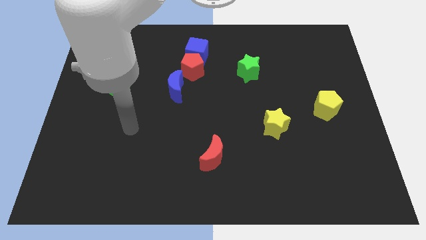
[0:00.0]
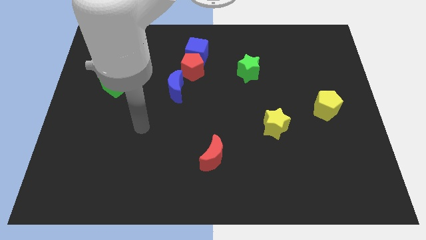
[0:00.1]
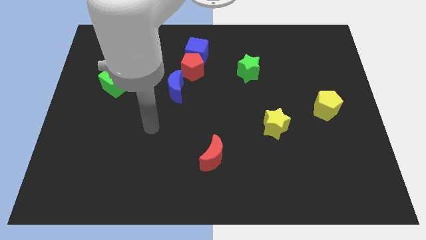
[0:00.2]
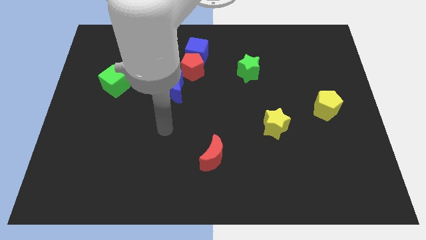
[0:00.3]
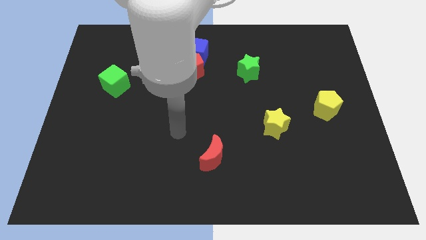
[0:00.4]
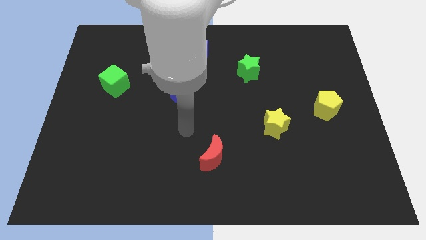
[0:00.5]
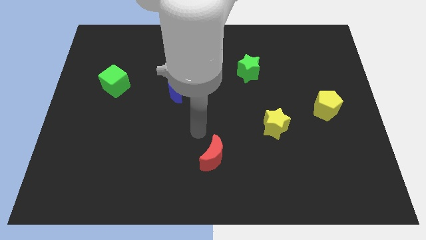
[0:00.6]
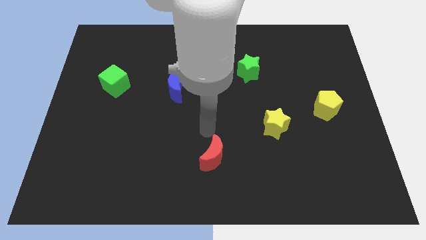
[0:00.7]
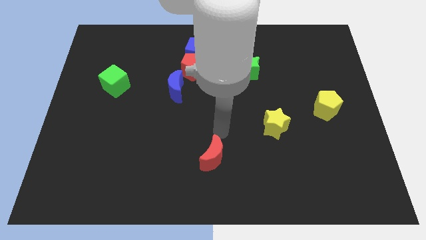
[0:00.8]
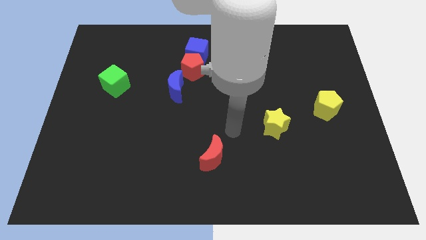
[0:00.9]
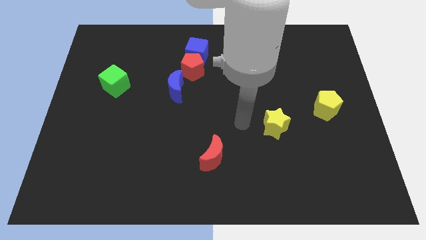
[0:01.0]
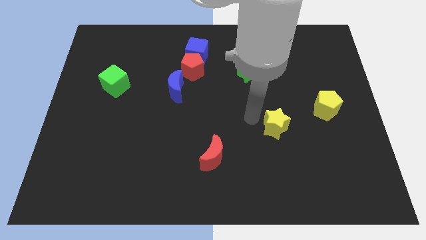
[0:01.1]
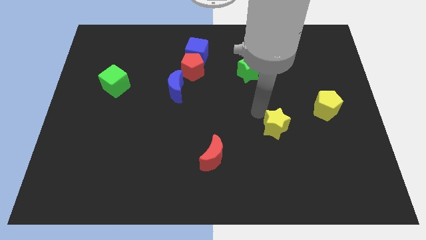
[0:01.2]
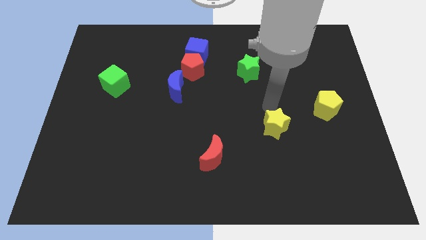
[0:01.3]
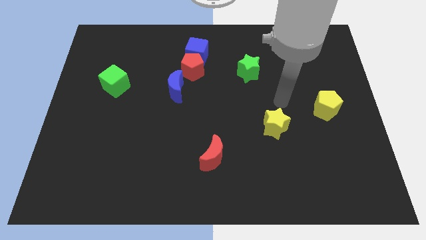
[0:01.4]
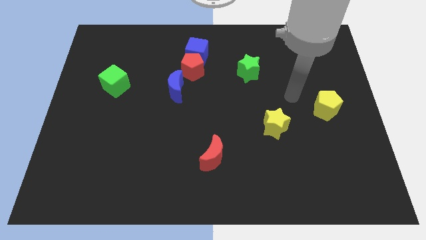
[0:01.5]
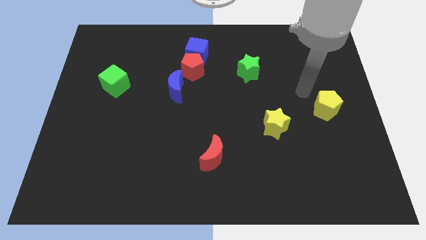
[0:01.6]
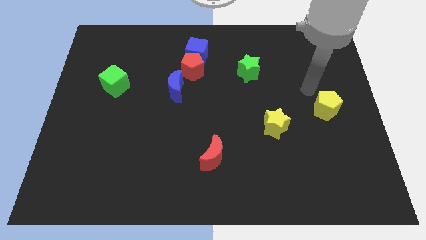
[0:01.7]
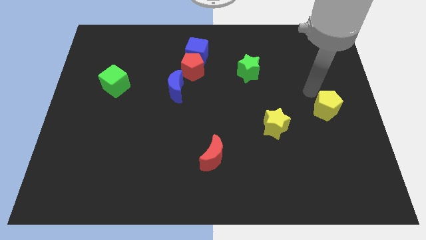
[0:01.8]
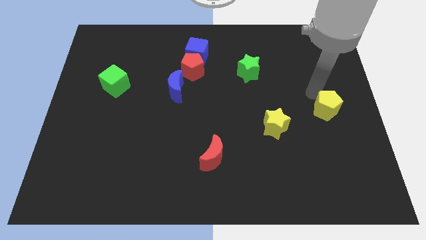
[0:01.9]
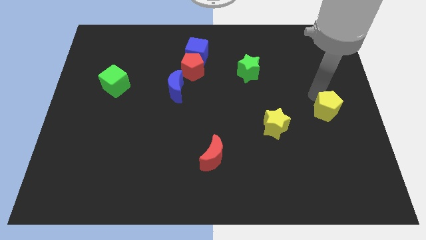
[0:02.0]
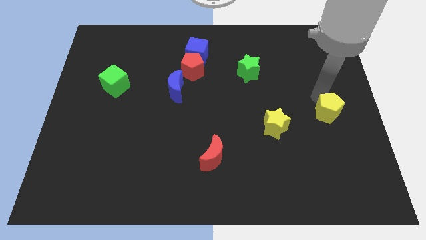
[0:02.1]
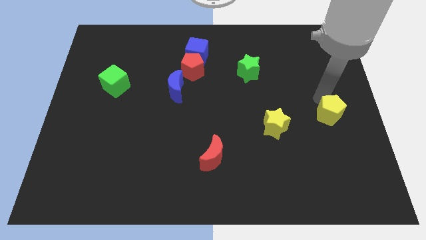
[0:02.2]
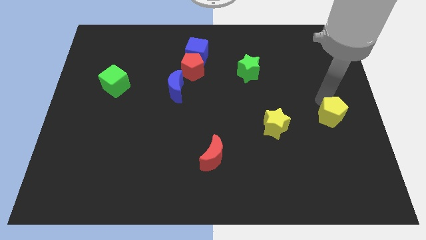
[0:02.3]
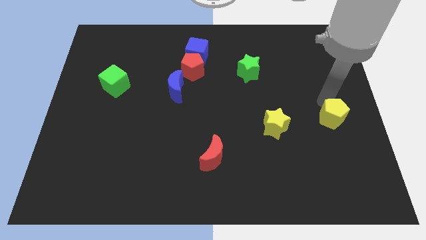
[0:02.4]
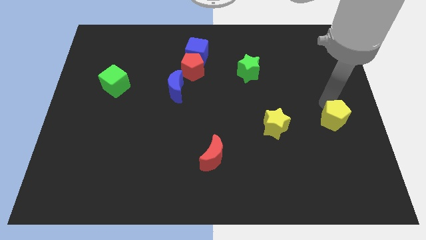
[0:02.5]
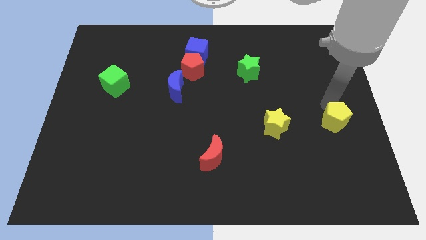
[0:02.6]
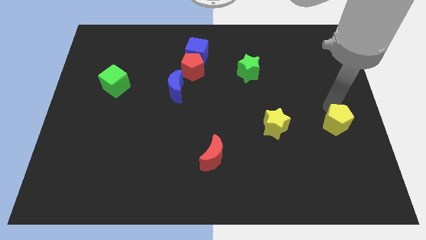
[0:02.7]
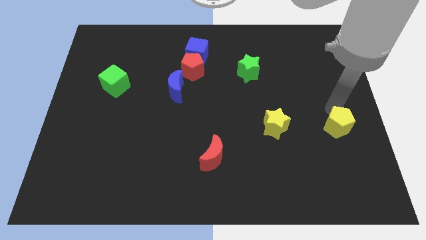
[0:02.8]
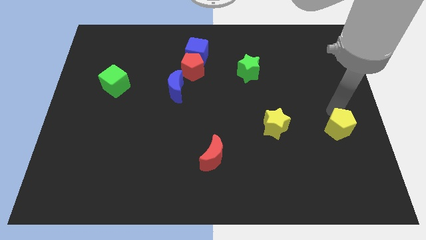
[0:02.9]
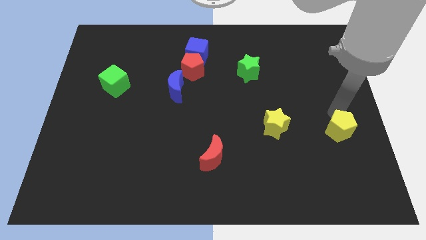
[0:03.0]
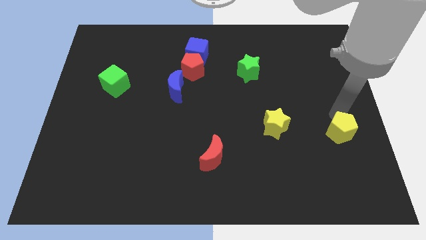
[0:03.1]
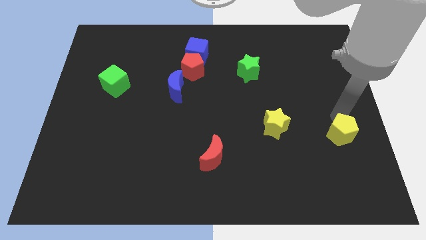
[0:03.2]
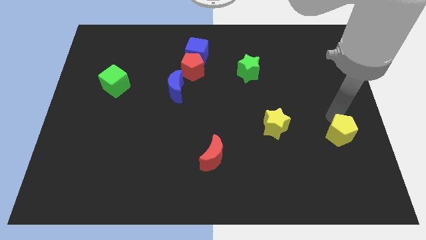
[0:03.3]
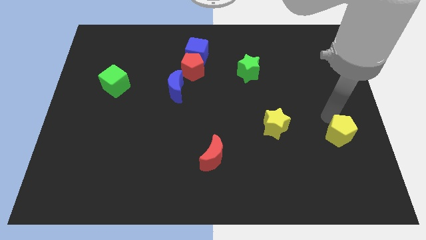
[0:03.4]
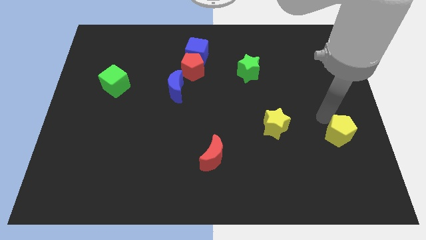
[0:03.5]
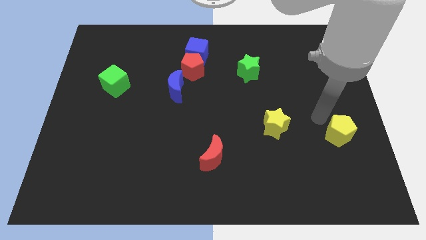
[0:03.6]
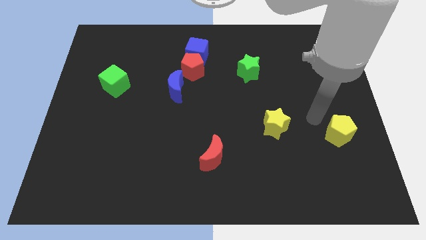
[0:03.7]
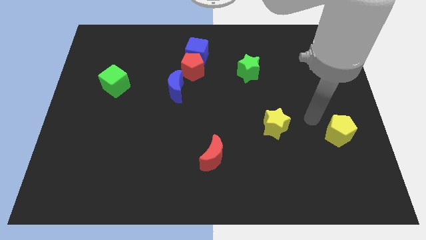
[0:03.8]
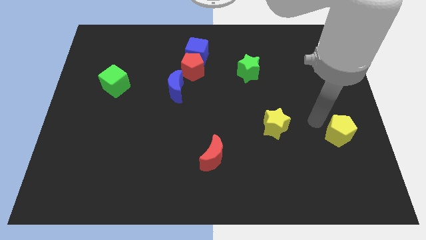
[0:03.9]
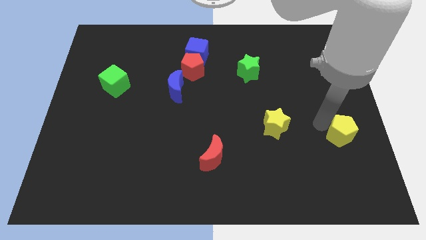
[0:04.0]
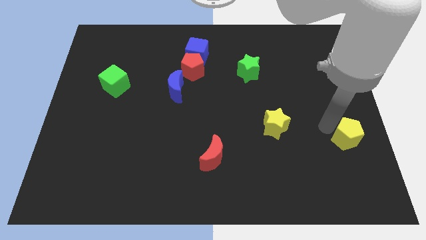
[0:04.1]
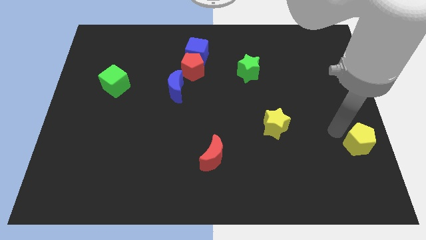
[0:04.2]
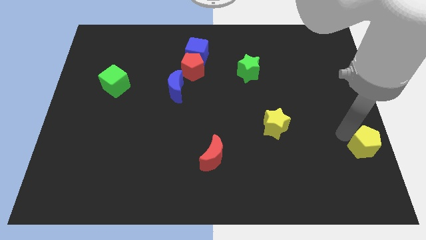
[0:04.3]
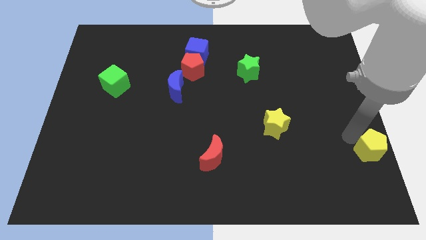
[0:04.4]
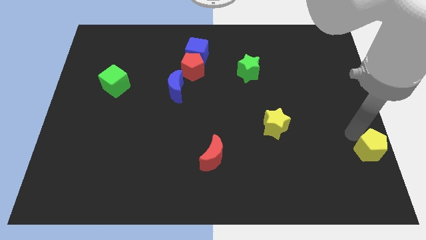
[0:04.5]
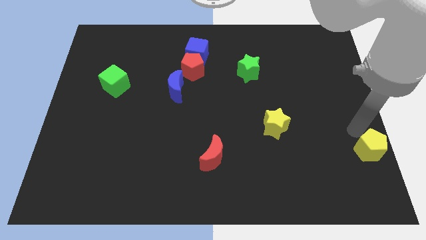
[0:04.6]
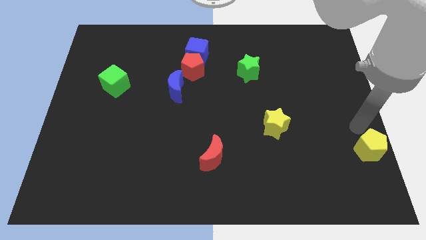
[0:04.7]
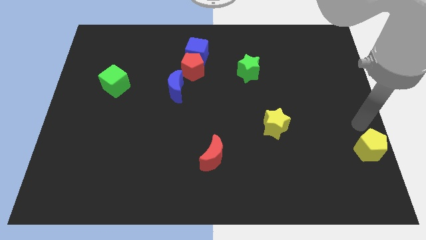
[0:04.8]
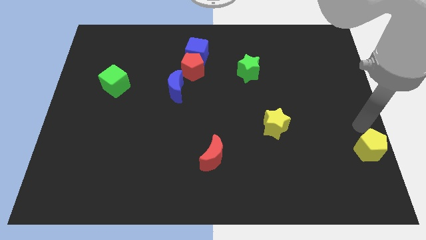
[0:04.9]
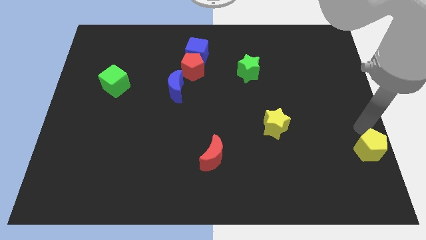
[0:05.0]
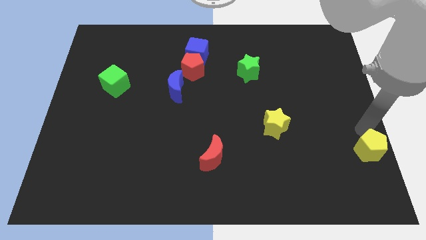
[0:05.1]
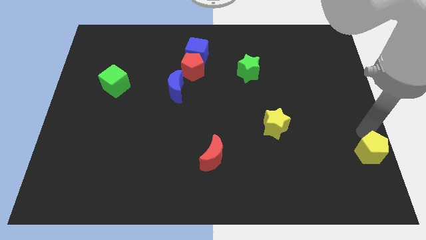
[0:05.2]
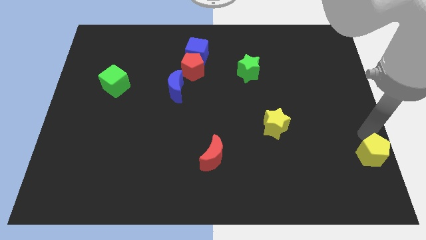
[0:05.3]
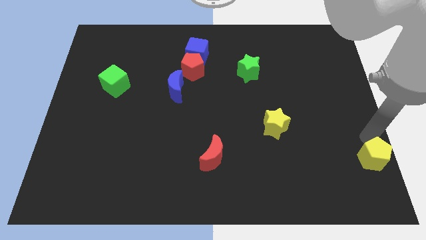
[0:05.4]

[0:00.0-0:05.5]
slide the yellow pentagon to the bottom right of the board

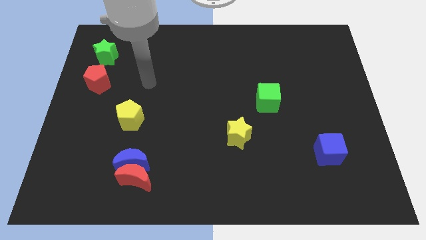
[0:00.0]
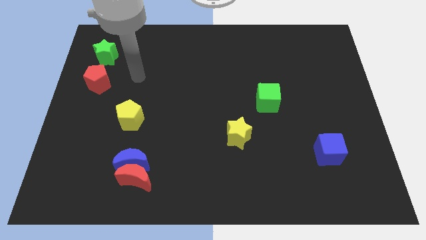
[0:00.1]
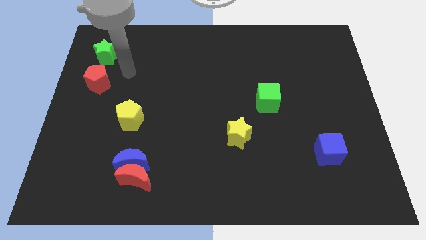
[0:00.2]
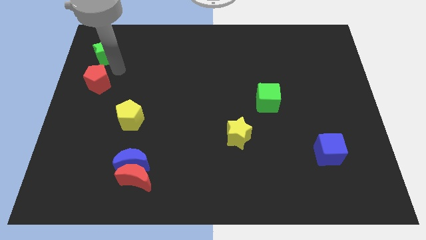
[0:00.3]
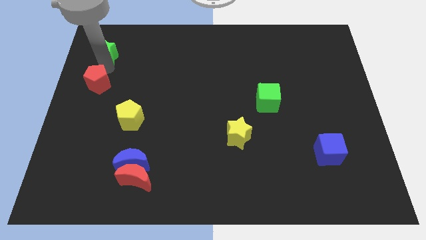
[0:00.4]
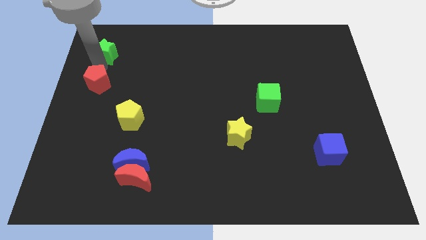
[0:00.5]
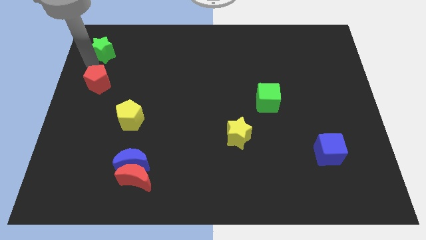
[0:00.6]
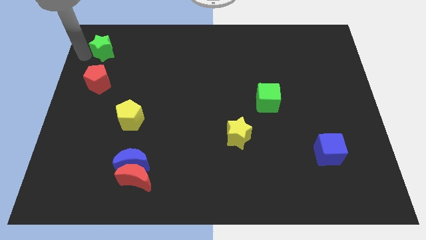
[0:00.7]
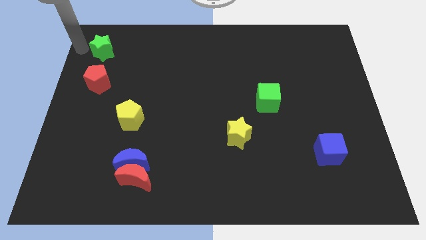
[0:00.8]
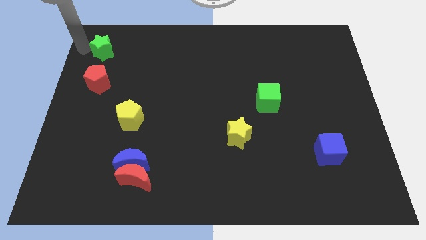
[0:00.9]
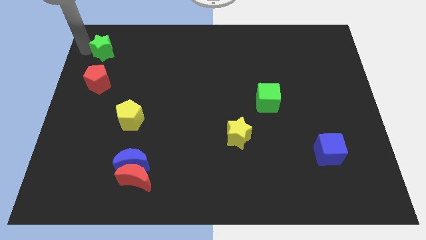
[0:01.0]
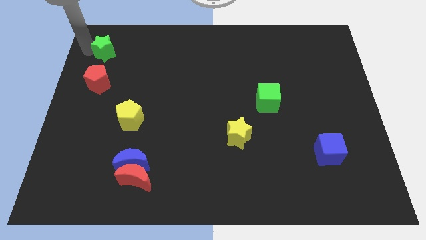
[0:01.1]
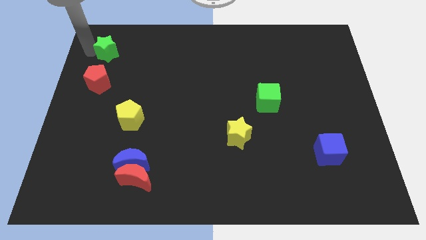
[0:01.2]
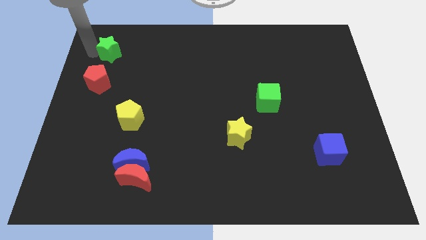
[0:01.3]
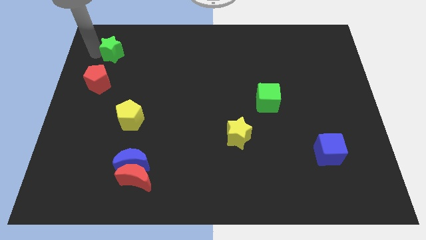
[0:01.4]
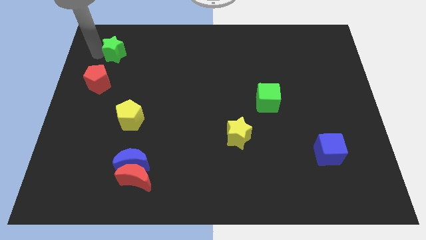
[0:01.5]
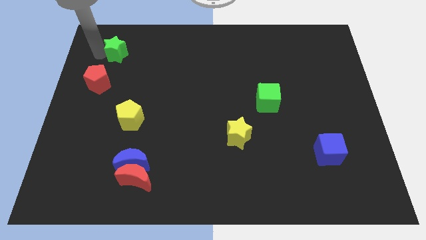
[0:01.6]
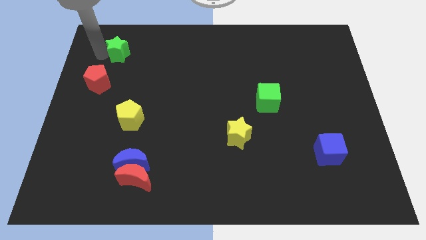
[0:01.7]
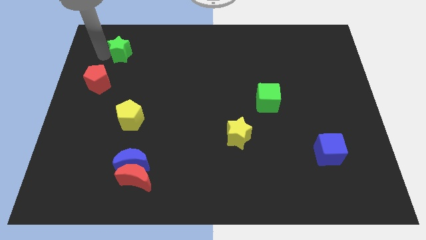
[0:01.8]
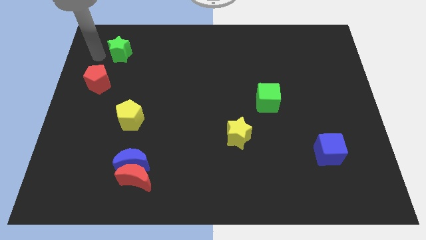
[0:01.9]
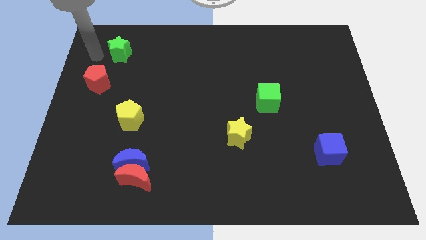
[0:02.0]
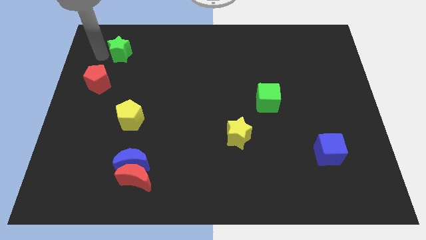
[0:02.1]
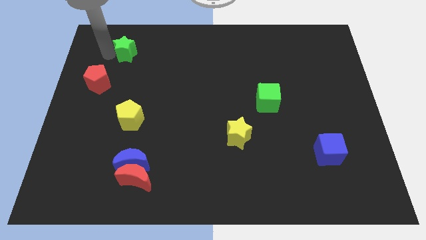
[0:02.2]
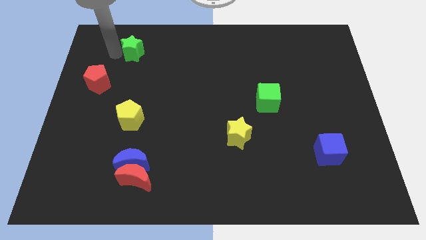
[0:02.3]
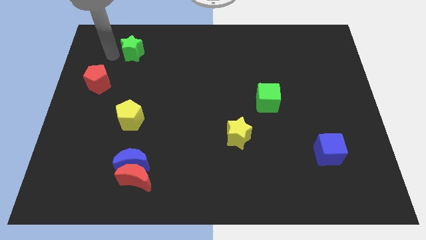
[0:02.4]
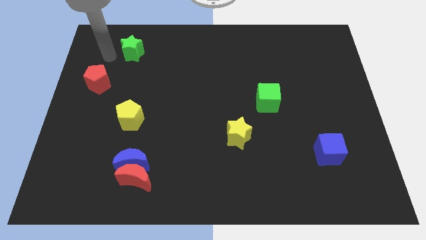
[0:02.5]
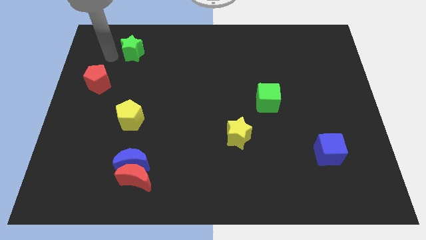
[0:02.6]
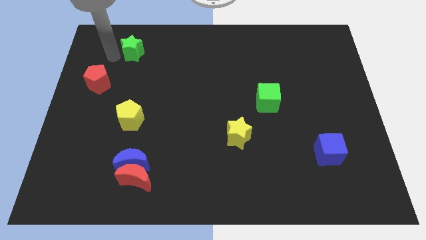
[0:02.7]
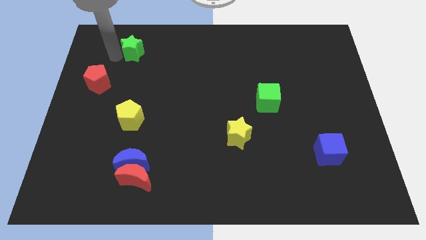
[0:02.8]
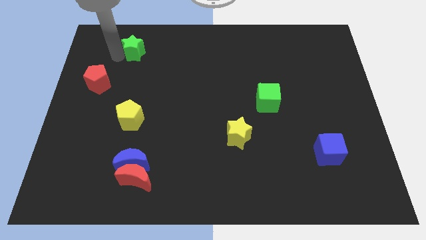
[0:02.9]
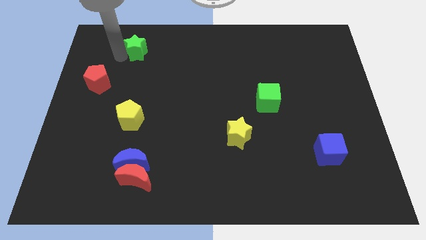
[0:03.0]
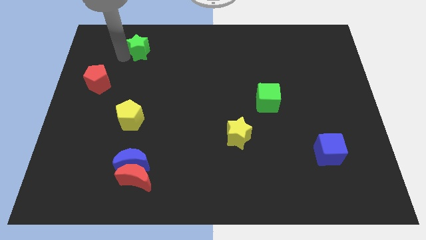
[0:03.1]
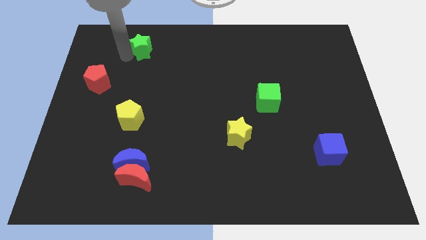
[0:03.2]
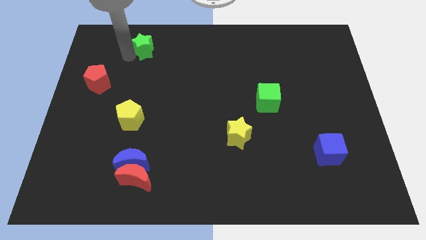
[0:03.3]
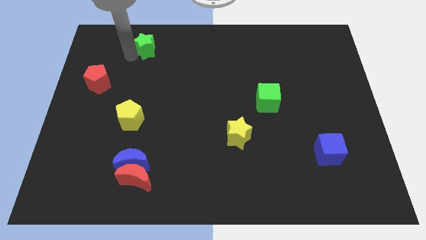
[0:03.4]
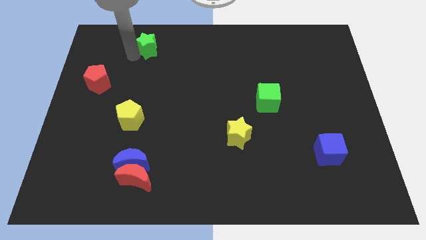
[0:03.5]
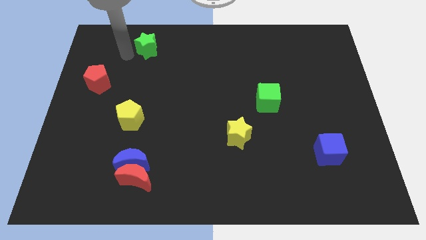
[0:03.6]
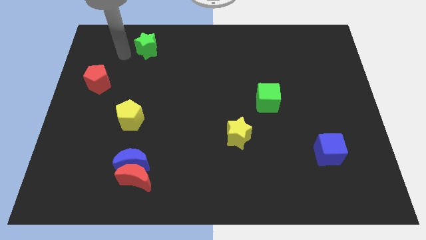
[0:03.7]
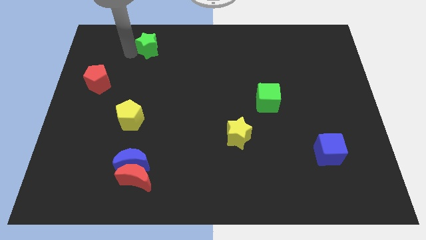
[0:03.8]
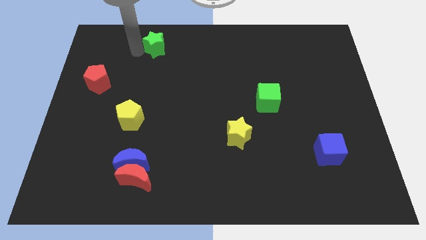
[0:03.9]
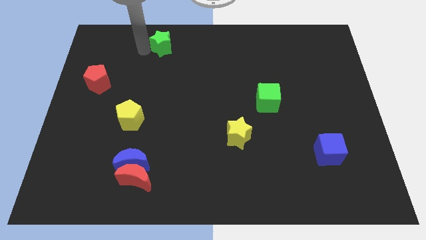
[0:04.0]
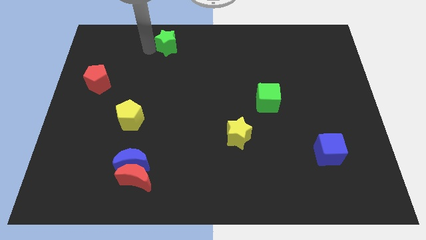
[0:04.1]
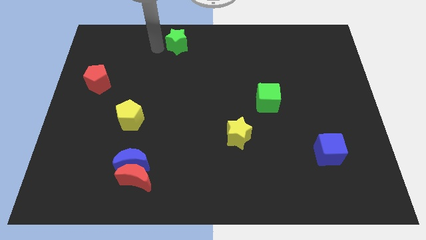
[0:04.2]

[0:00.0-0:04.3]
put the green star to the towards your base
